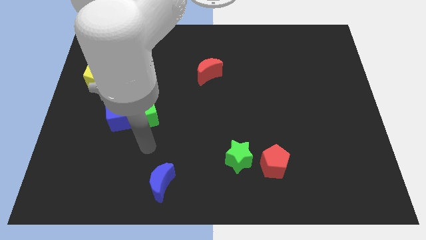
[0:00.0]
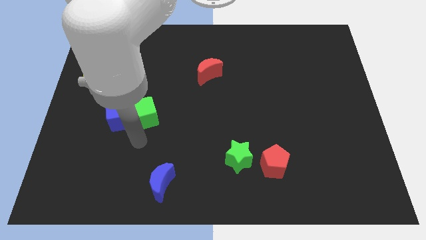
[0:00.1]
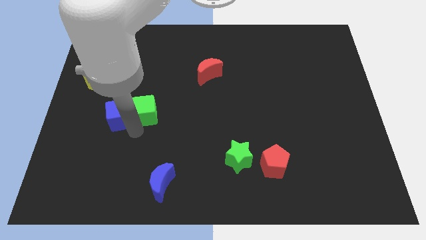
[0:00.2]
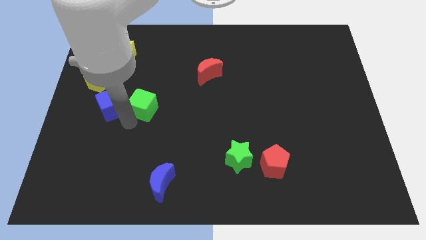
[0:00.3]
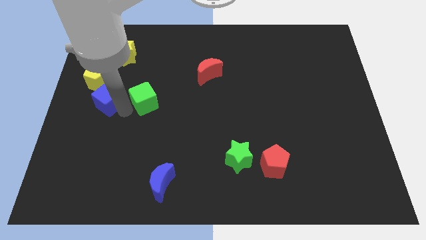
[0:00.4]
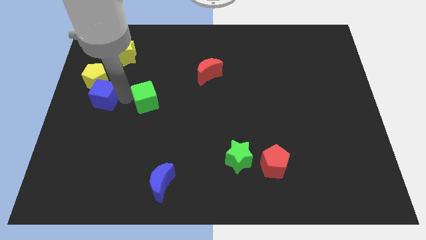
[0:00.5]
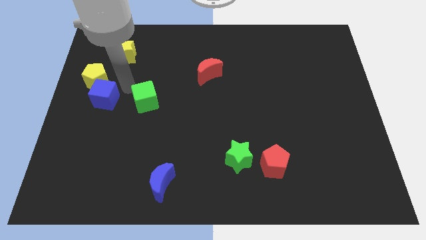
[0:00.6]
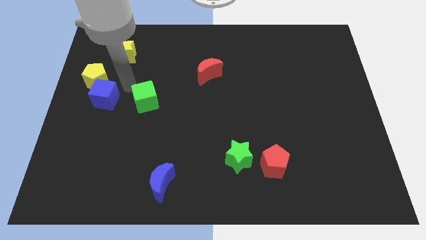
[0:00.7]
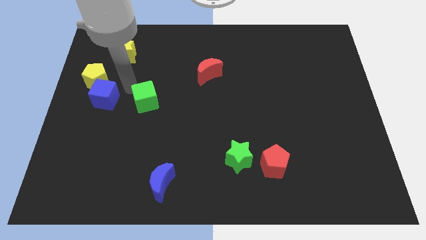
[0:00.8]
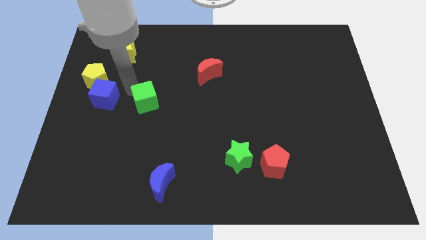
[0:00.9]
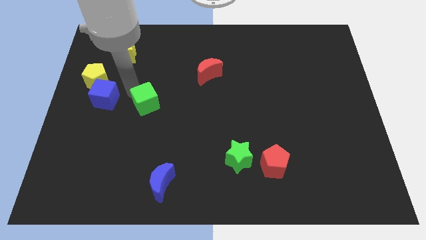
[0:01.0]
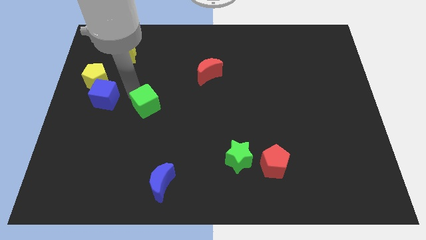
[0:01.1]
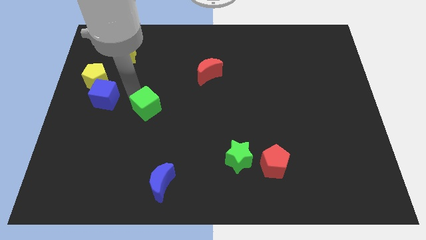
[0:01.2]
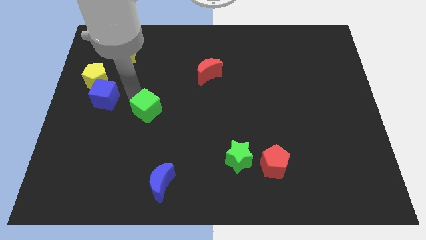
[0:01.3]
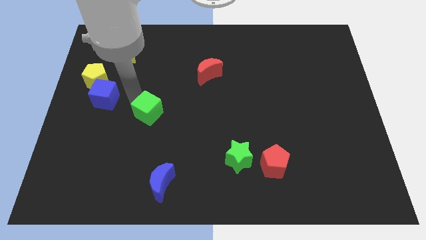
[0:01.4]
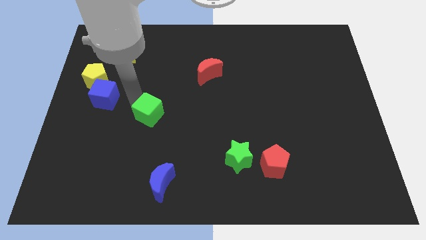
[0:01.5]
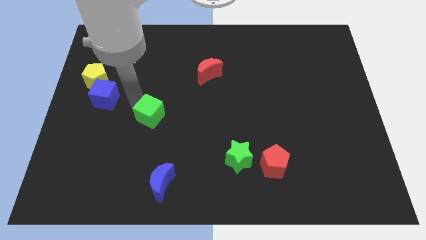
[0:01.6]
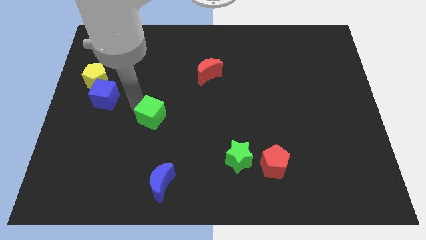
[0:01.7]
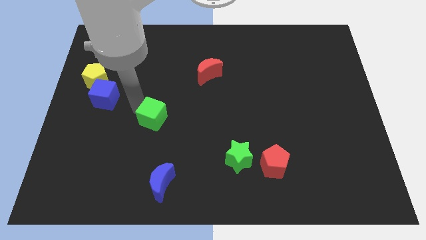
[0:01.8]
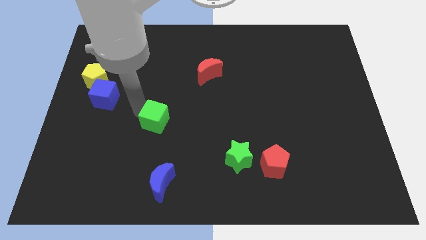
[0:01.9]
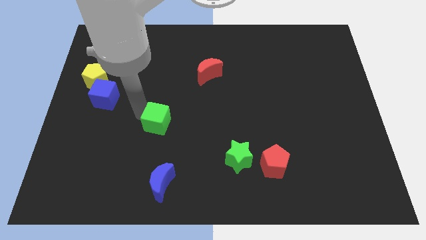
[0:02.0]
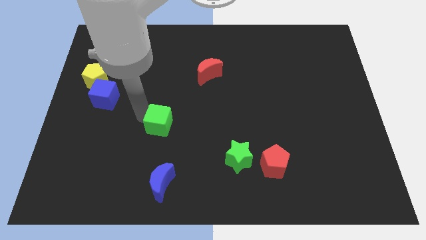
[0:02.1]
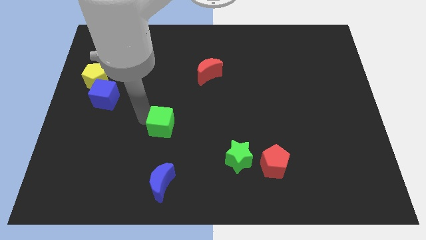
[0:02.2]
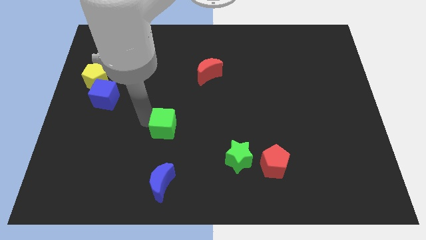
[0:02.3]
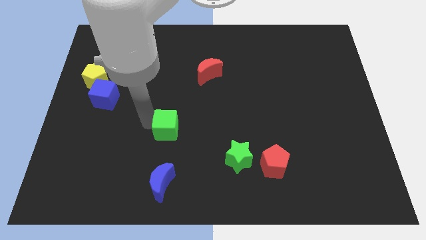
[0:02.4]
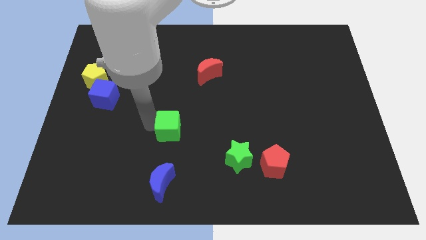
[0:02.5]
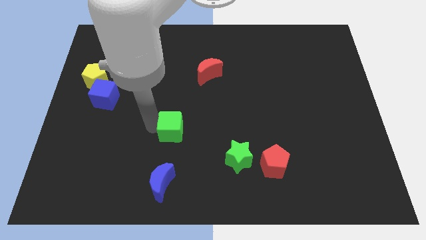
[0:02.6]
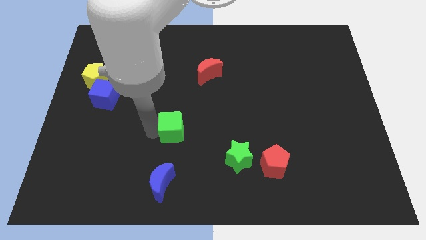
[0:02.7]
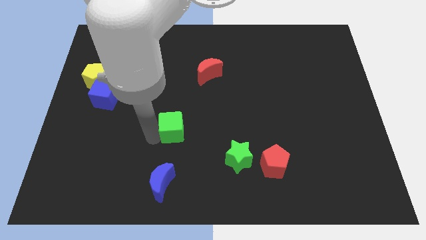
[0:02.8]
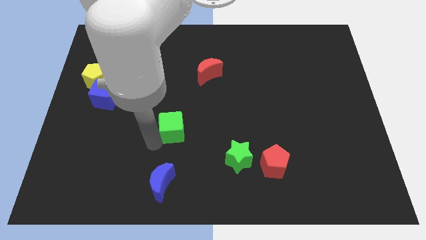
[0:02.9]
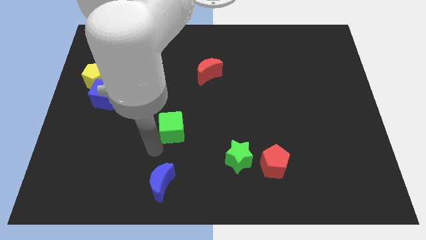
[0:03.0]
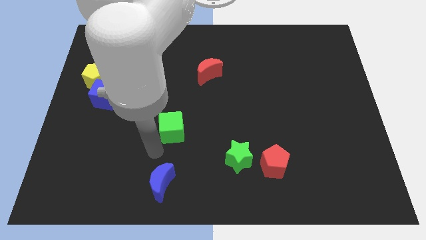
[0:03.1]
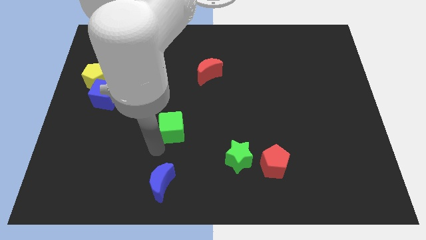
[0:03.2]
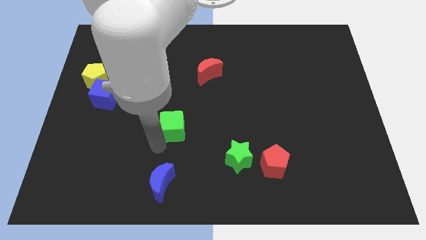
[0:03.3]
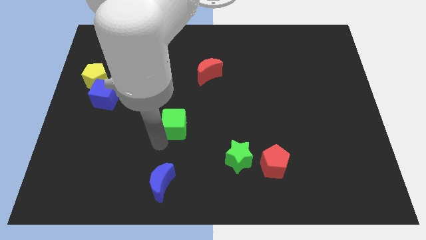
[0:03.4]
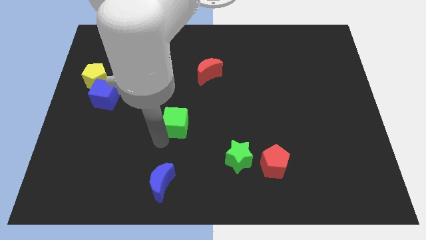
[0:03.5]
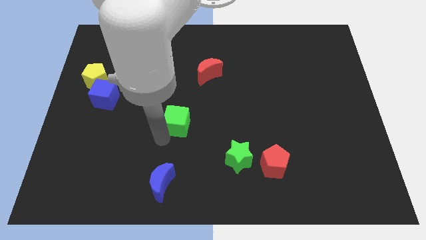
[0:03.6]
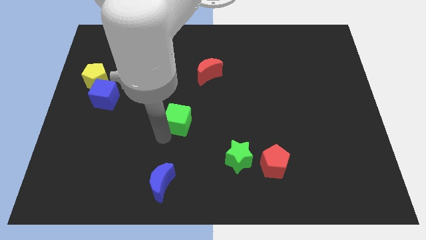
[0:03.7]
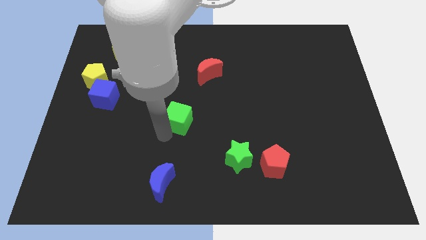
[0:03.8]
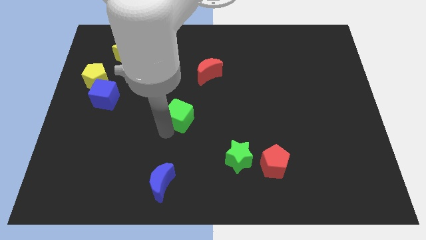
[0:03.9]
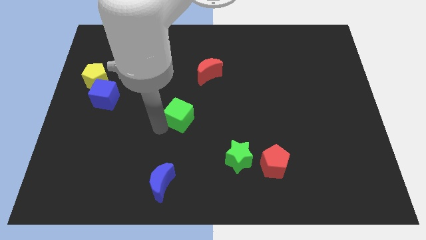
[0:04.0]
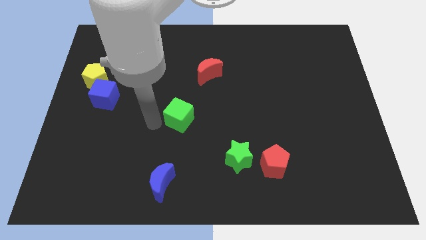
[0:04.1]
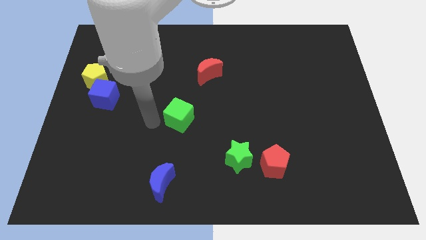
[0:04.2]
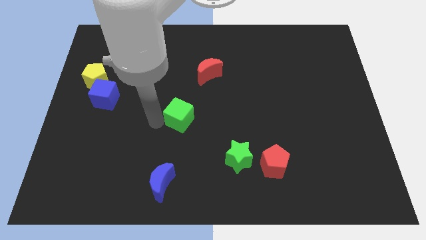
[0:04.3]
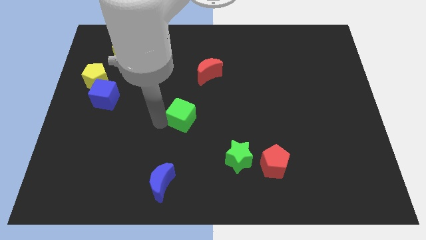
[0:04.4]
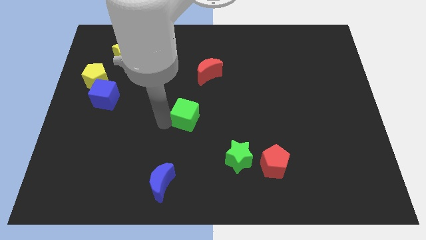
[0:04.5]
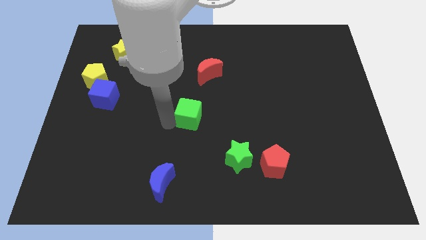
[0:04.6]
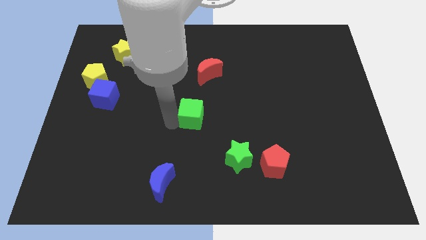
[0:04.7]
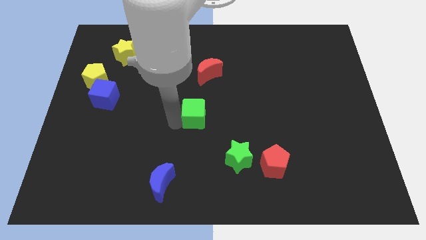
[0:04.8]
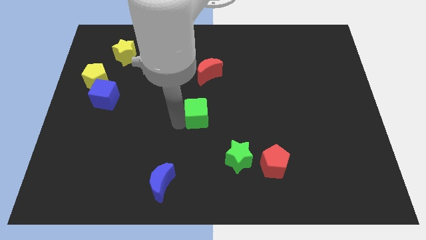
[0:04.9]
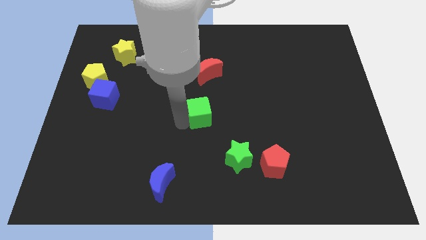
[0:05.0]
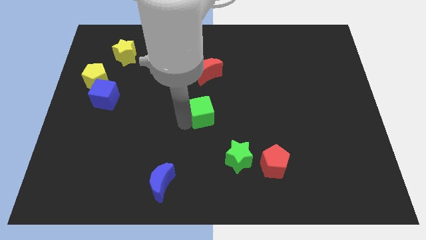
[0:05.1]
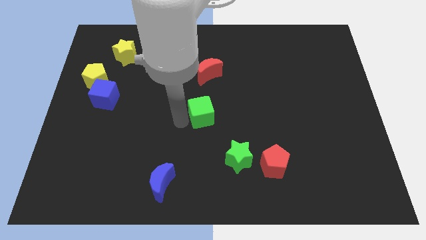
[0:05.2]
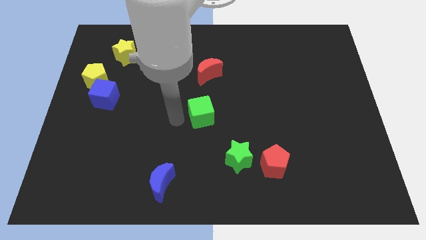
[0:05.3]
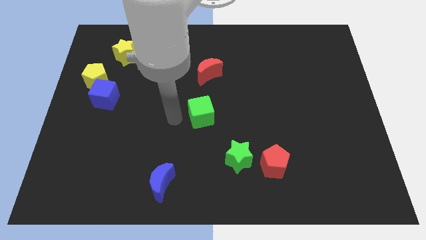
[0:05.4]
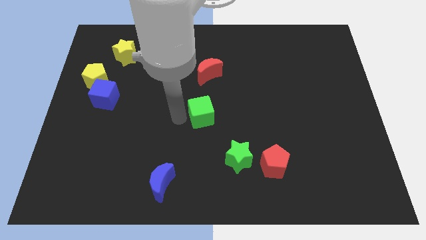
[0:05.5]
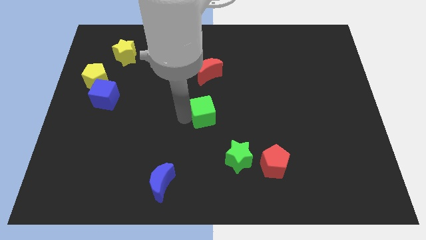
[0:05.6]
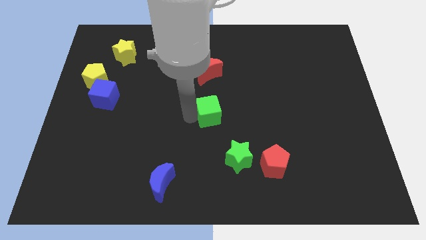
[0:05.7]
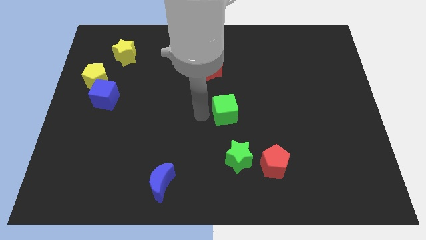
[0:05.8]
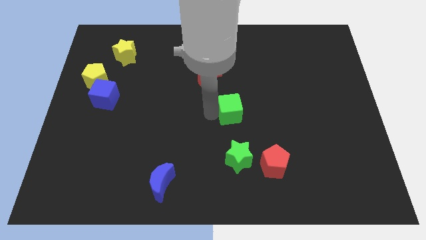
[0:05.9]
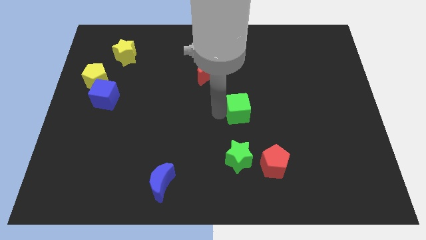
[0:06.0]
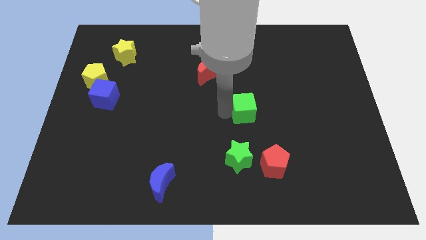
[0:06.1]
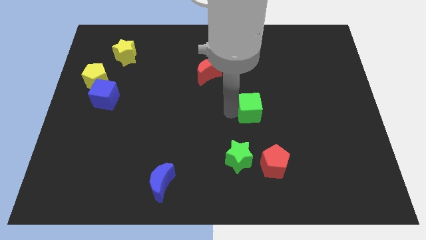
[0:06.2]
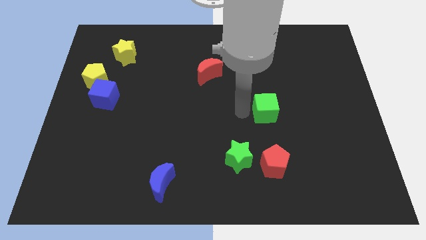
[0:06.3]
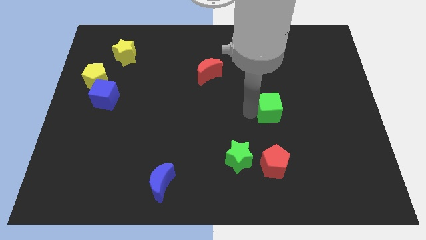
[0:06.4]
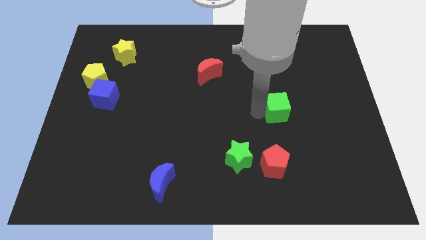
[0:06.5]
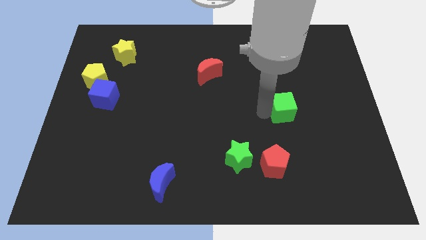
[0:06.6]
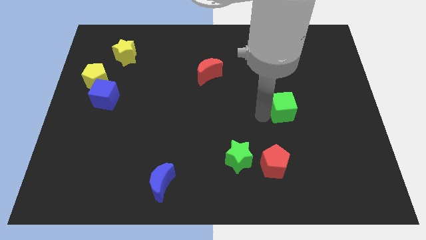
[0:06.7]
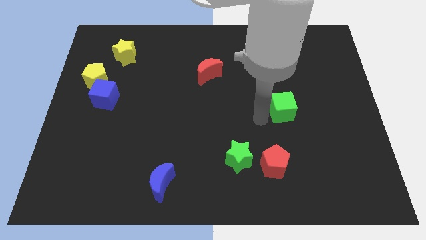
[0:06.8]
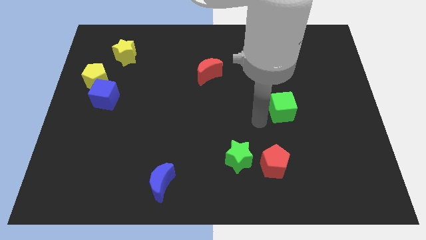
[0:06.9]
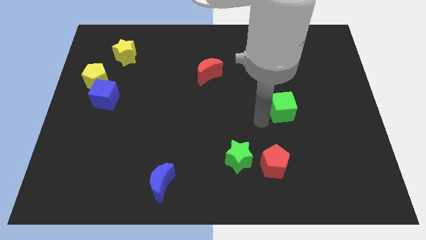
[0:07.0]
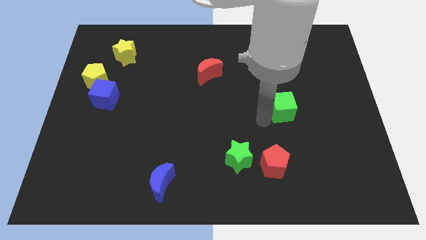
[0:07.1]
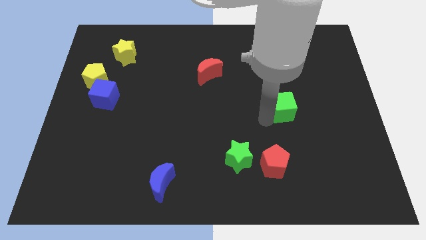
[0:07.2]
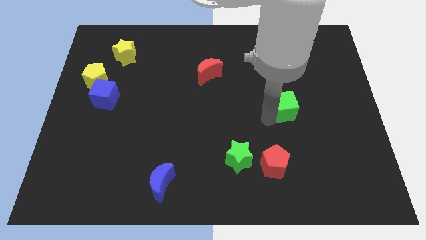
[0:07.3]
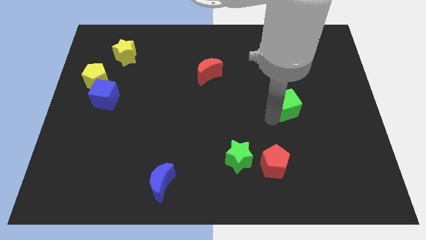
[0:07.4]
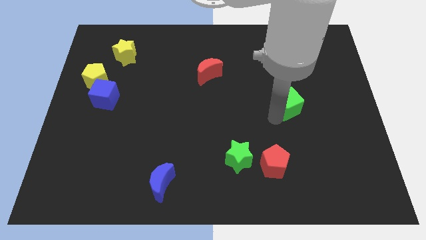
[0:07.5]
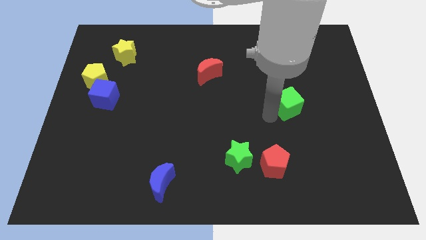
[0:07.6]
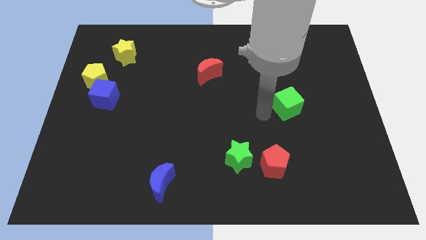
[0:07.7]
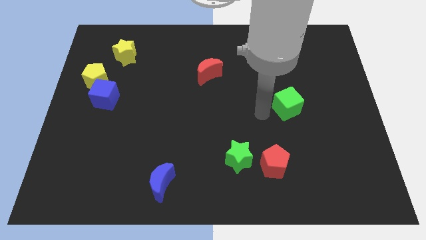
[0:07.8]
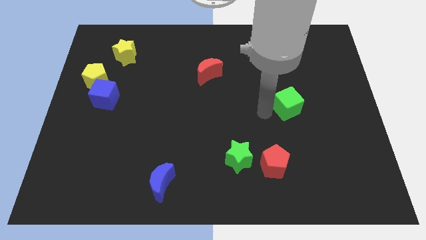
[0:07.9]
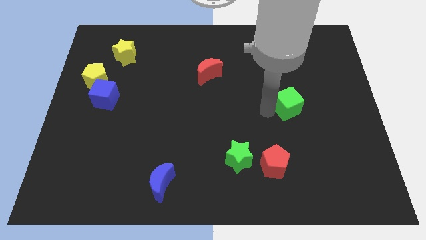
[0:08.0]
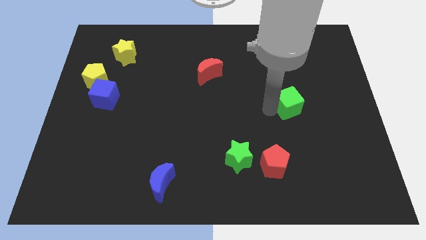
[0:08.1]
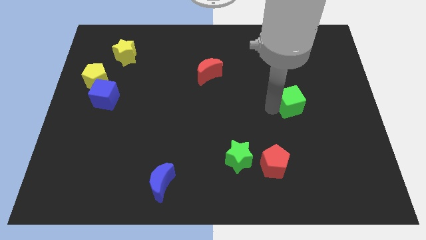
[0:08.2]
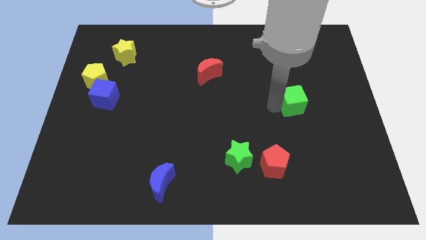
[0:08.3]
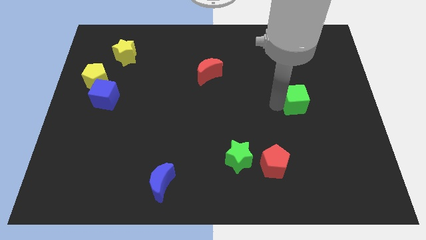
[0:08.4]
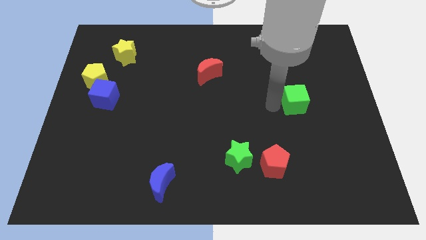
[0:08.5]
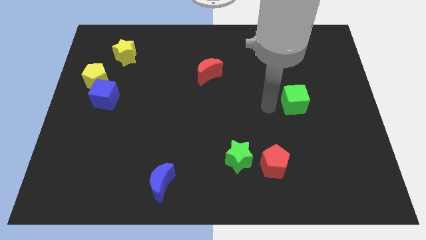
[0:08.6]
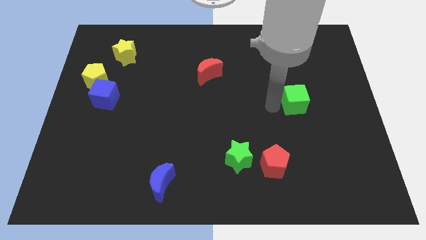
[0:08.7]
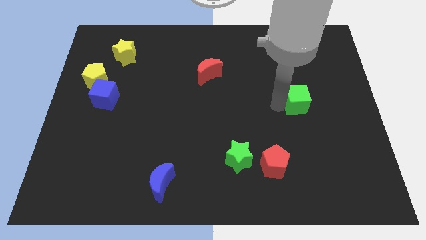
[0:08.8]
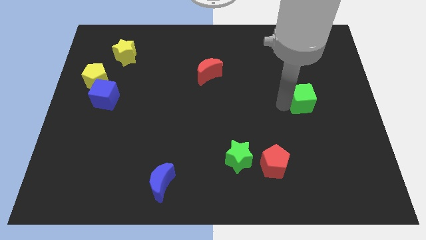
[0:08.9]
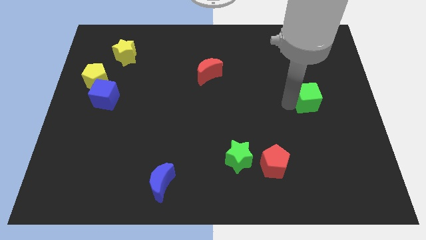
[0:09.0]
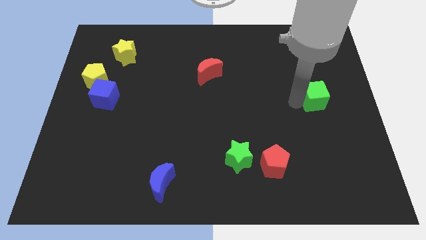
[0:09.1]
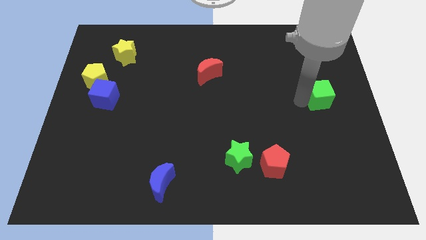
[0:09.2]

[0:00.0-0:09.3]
push the green cube to the center right
